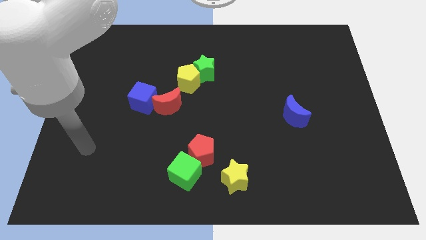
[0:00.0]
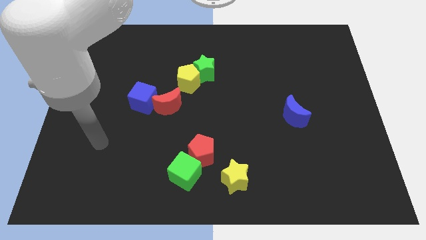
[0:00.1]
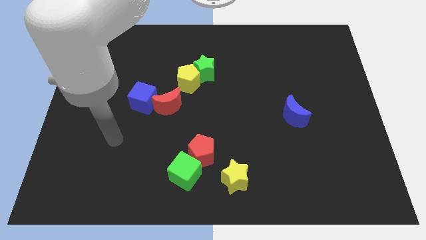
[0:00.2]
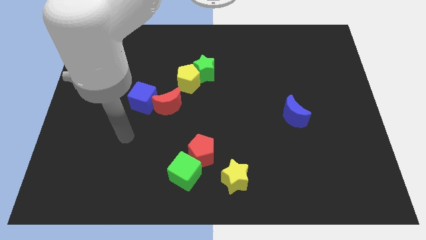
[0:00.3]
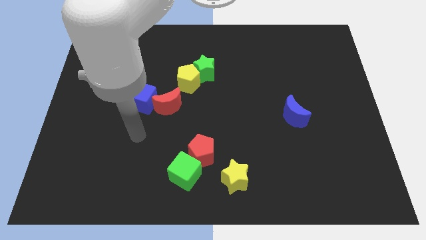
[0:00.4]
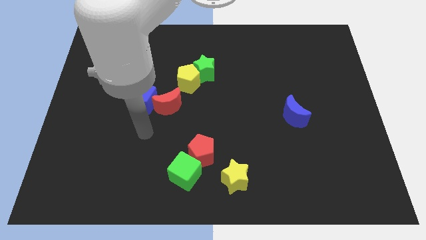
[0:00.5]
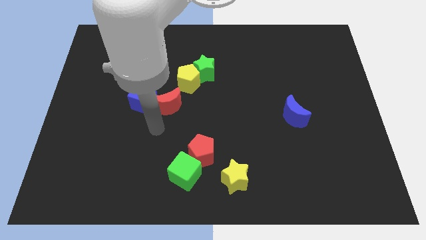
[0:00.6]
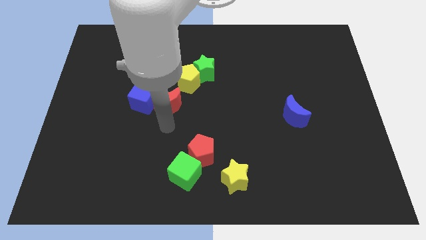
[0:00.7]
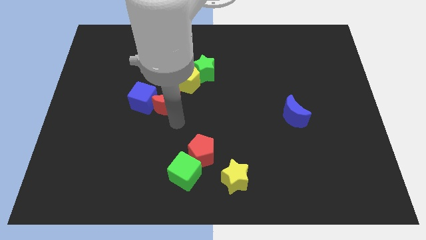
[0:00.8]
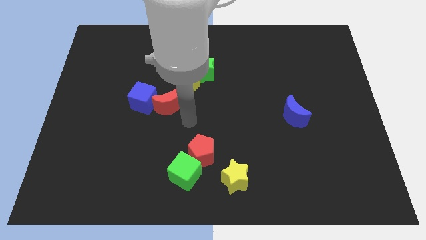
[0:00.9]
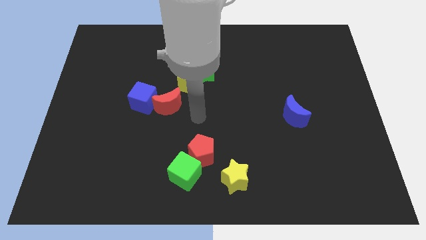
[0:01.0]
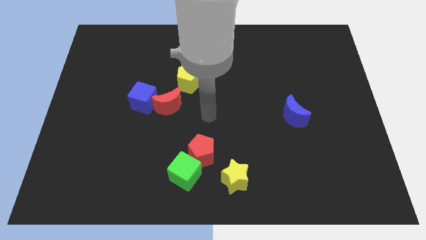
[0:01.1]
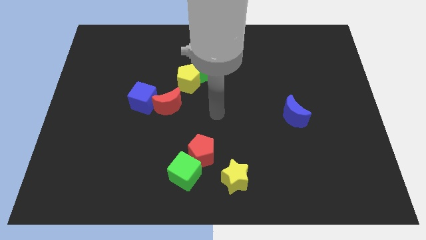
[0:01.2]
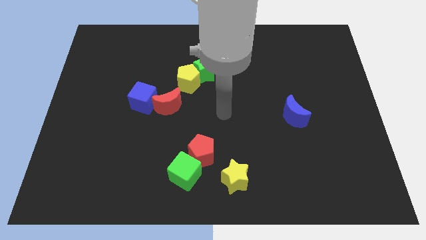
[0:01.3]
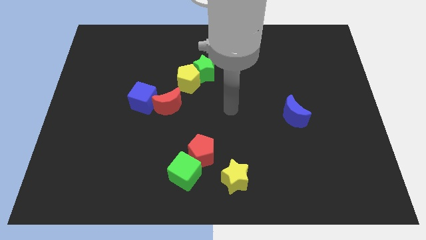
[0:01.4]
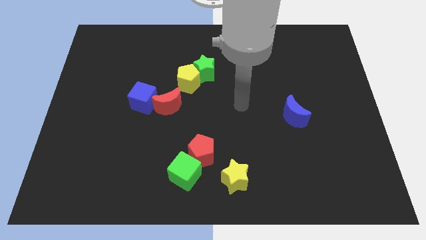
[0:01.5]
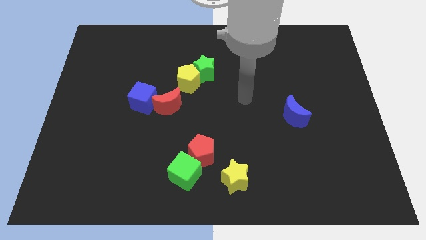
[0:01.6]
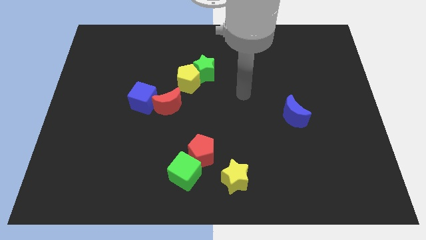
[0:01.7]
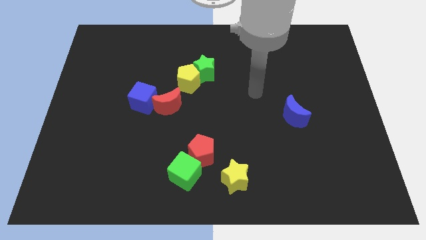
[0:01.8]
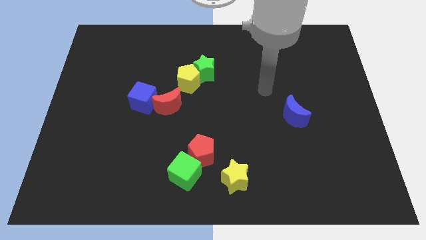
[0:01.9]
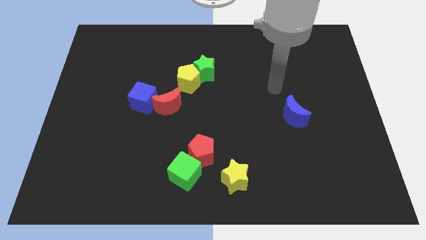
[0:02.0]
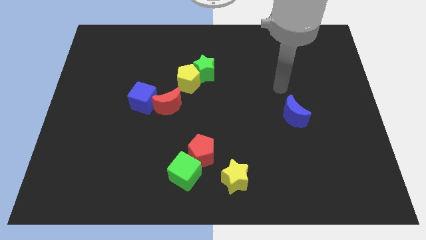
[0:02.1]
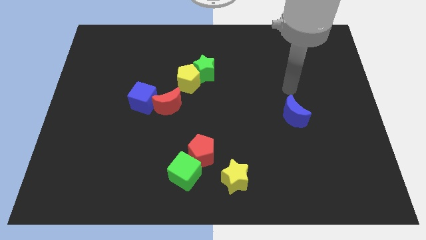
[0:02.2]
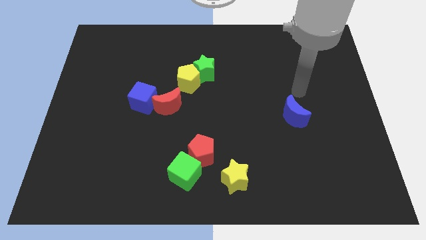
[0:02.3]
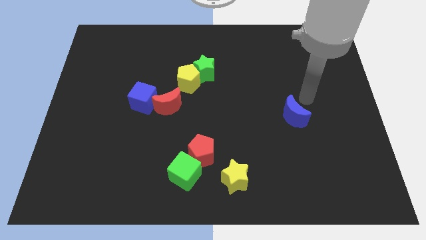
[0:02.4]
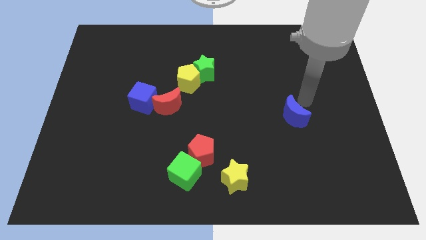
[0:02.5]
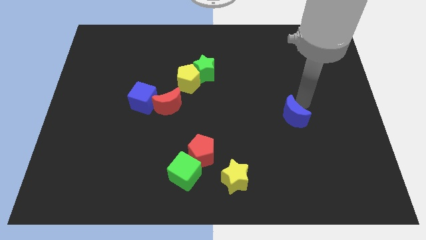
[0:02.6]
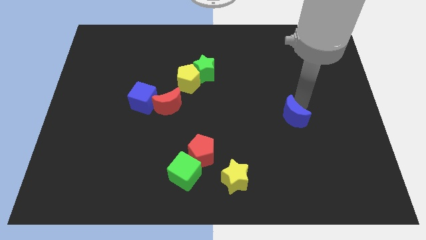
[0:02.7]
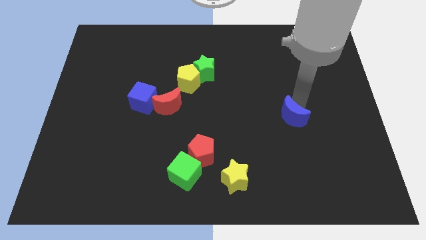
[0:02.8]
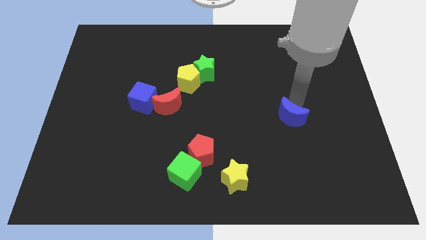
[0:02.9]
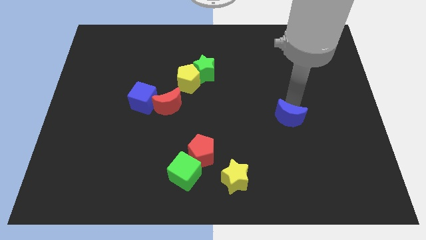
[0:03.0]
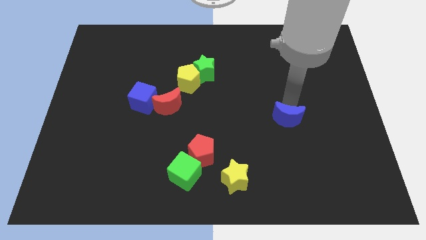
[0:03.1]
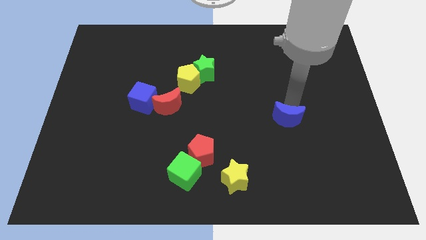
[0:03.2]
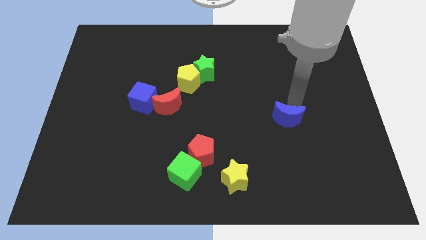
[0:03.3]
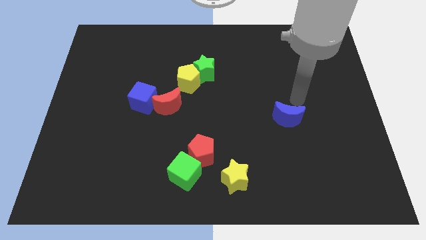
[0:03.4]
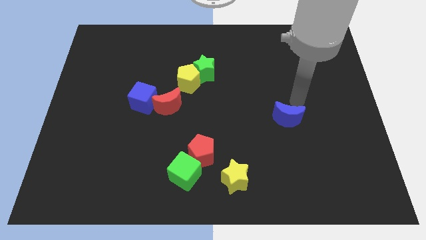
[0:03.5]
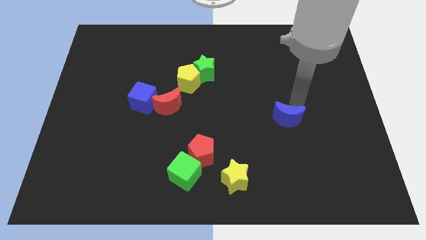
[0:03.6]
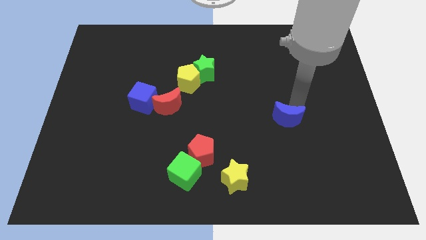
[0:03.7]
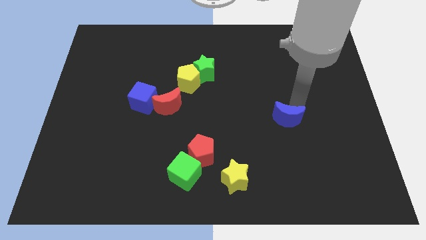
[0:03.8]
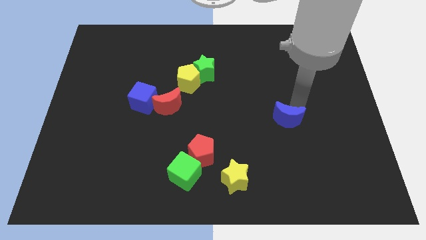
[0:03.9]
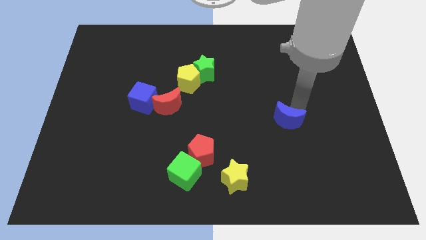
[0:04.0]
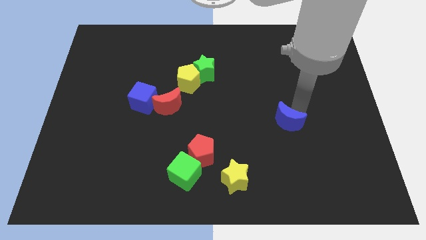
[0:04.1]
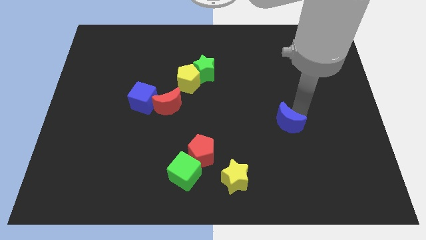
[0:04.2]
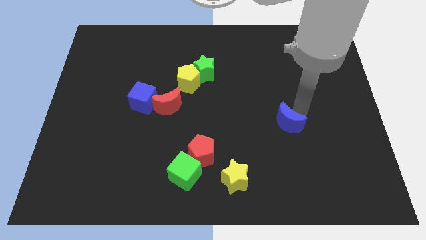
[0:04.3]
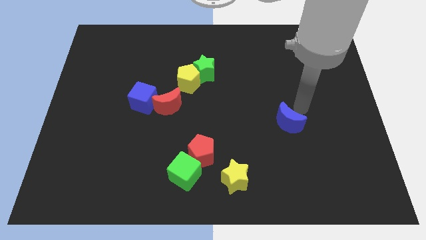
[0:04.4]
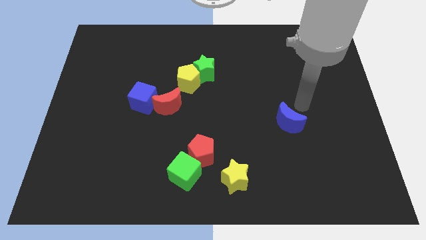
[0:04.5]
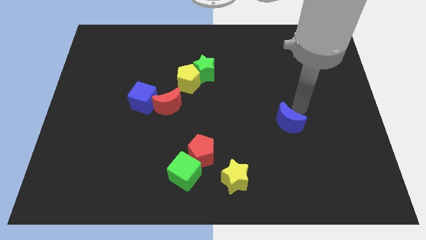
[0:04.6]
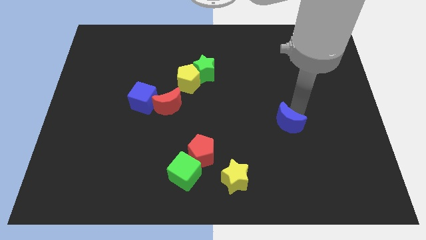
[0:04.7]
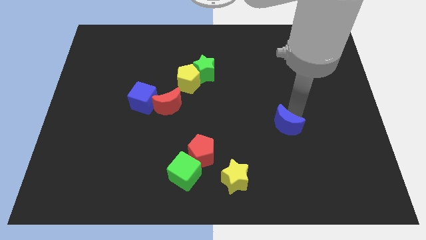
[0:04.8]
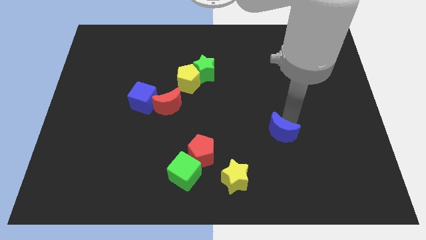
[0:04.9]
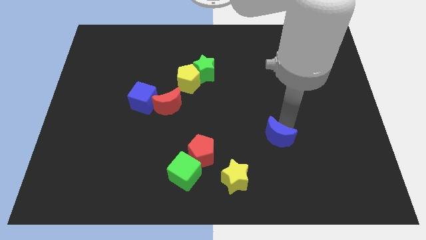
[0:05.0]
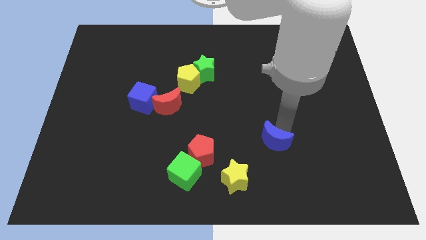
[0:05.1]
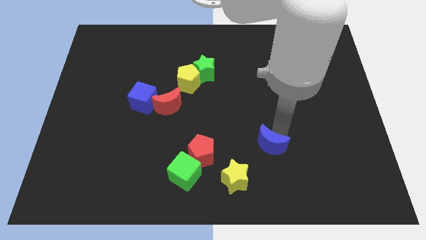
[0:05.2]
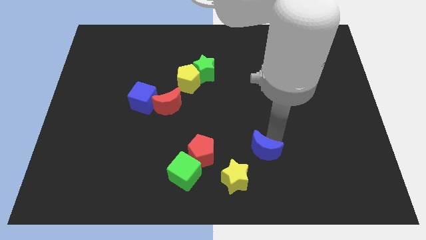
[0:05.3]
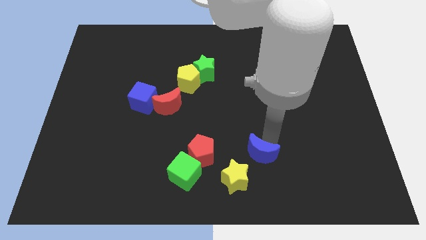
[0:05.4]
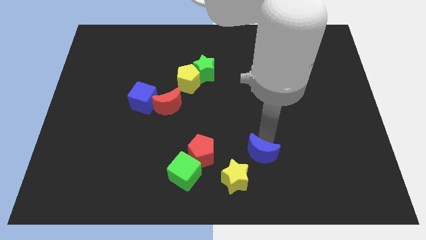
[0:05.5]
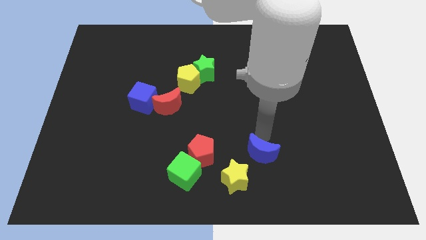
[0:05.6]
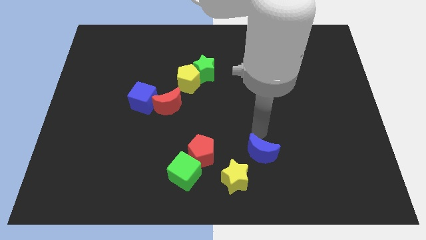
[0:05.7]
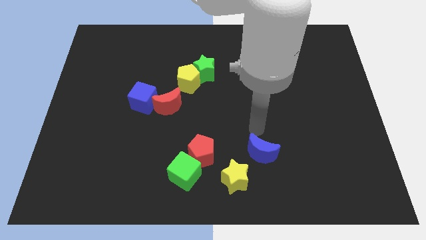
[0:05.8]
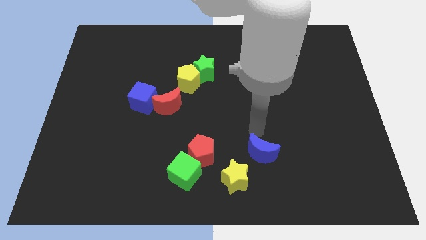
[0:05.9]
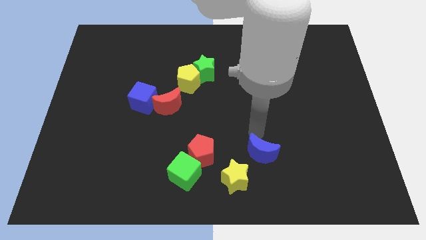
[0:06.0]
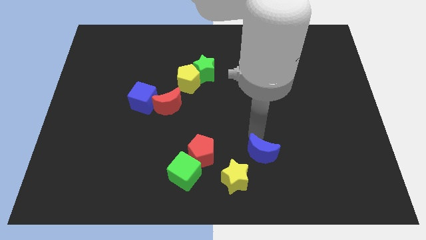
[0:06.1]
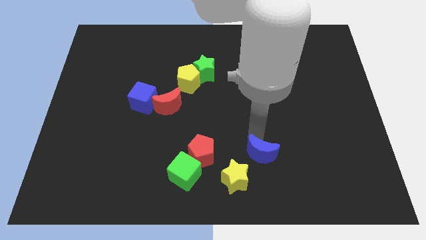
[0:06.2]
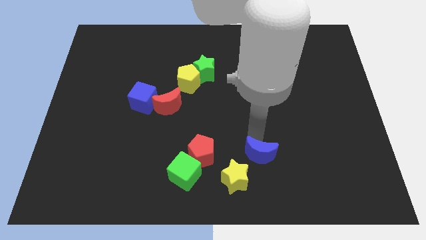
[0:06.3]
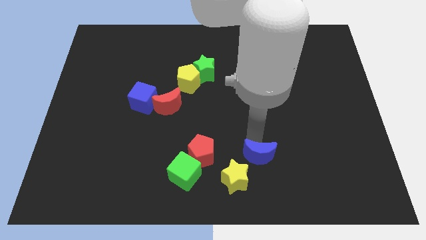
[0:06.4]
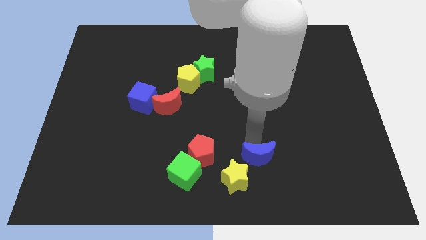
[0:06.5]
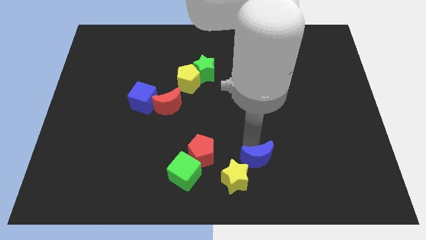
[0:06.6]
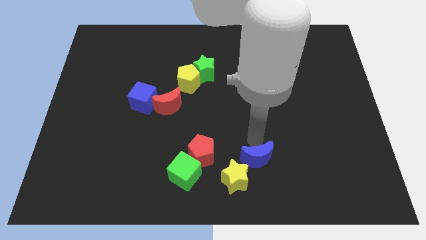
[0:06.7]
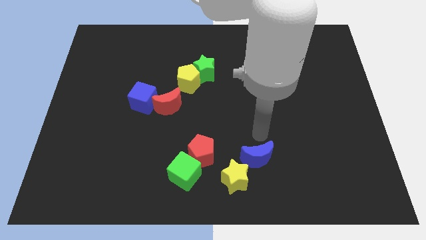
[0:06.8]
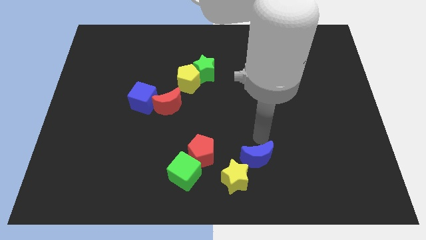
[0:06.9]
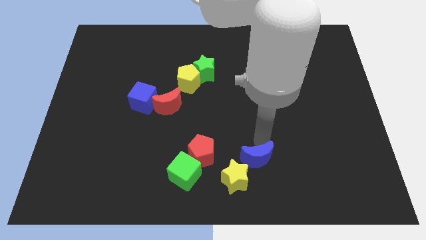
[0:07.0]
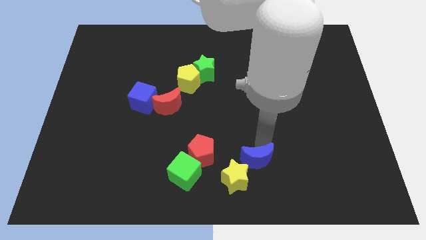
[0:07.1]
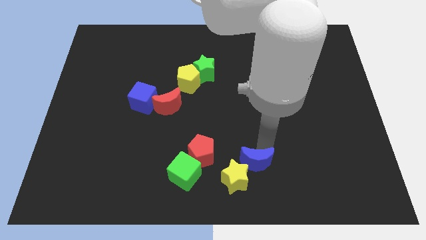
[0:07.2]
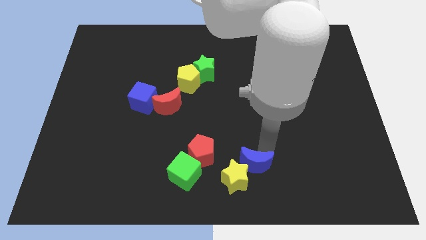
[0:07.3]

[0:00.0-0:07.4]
push the blue moon to the bottom side

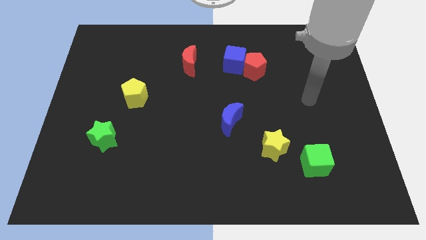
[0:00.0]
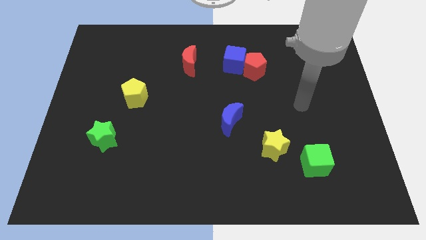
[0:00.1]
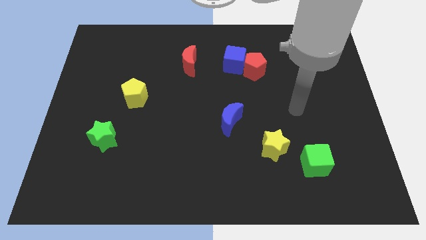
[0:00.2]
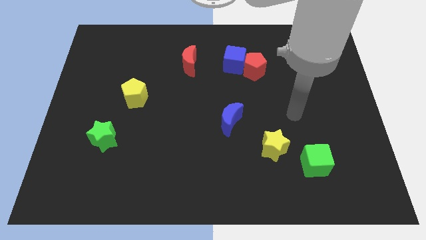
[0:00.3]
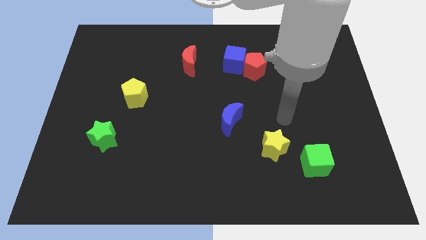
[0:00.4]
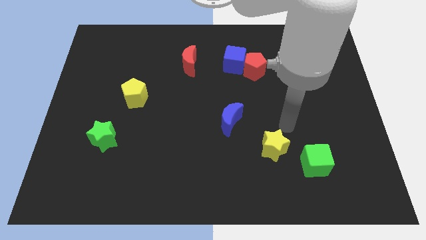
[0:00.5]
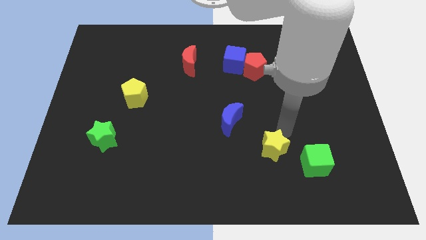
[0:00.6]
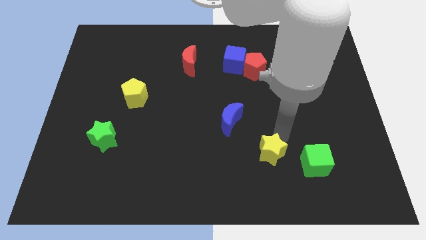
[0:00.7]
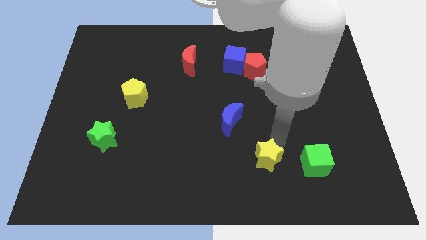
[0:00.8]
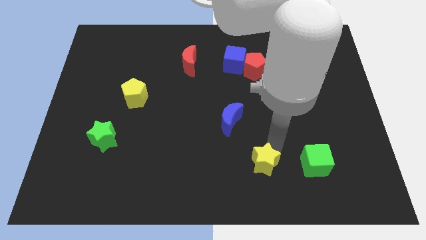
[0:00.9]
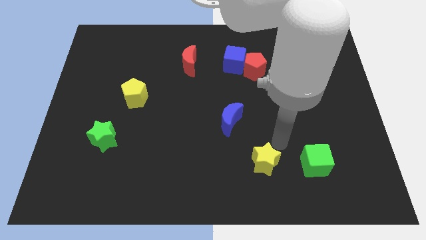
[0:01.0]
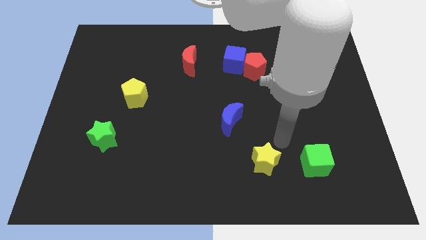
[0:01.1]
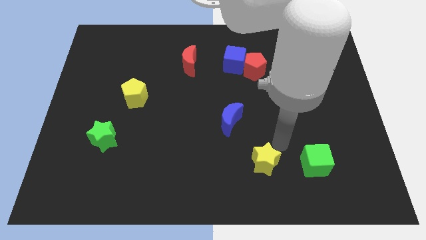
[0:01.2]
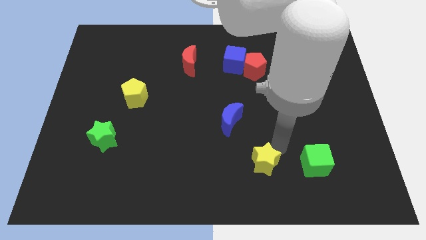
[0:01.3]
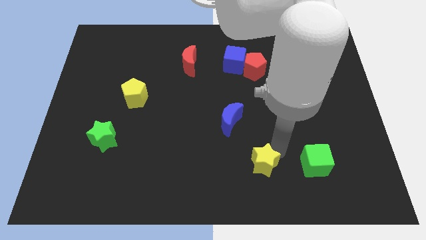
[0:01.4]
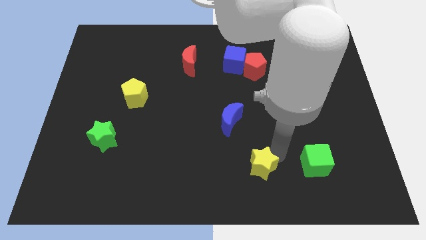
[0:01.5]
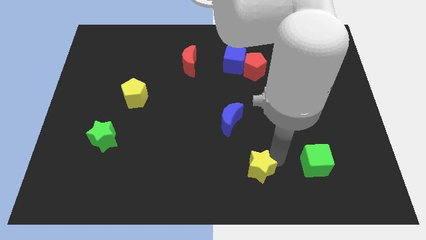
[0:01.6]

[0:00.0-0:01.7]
put the yellow star to the bottom side
